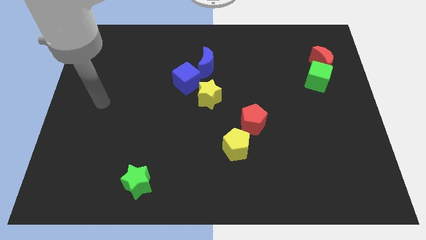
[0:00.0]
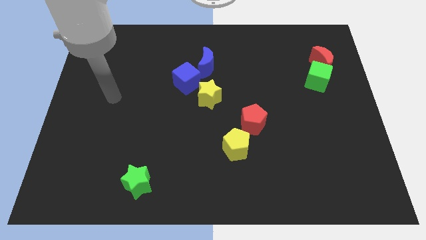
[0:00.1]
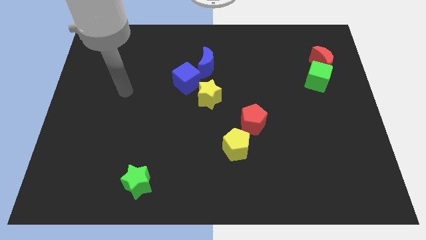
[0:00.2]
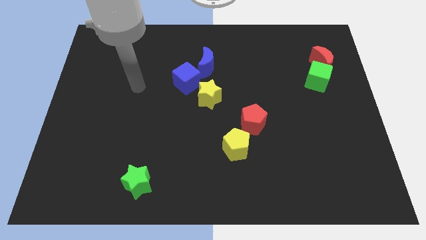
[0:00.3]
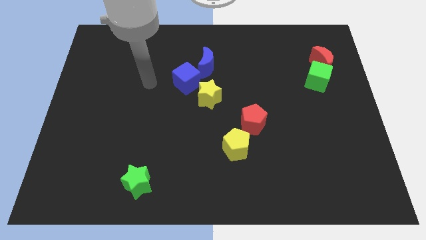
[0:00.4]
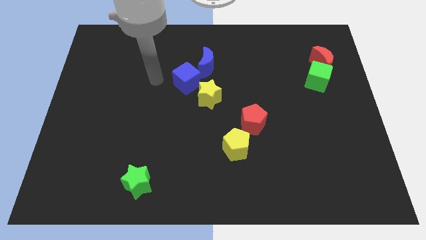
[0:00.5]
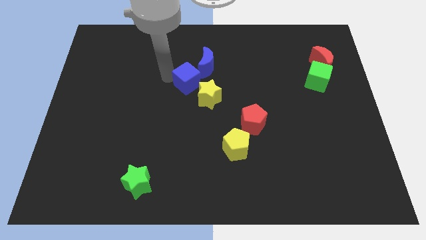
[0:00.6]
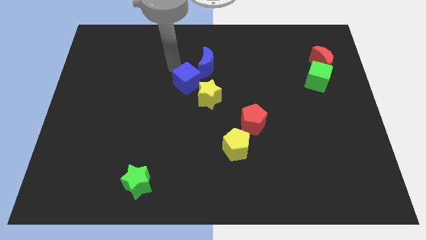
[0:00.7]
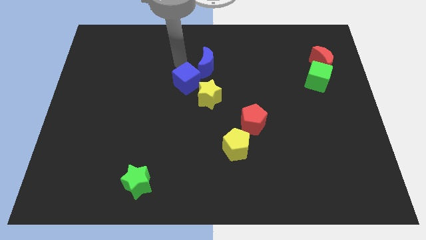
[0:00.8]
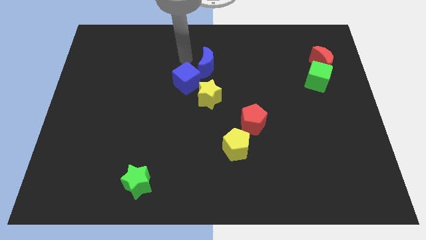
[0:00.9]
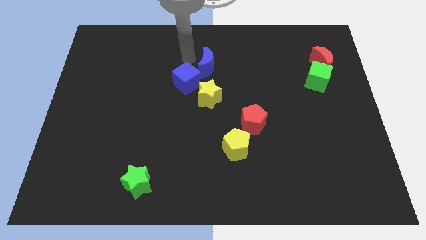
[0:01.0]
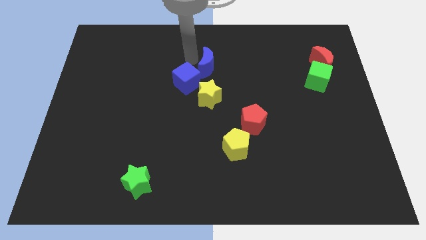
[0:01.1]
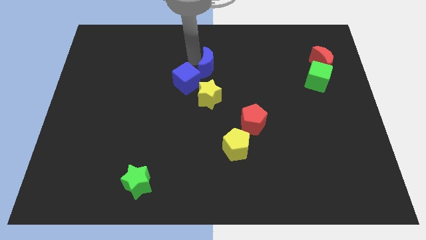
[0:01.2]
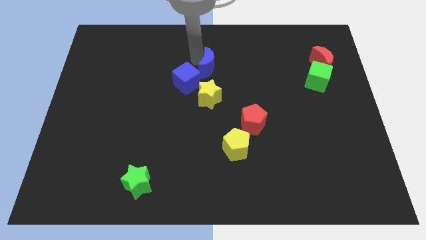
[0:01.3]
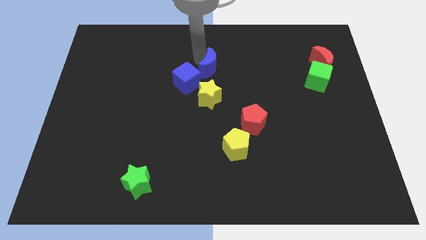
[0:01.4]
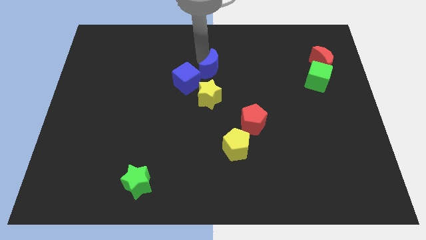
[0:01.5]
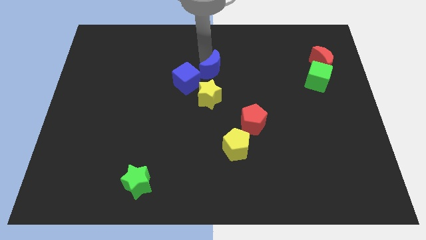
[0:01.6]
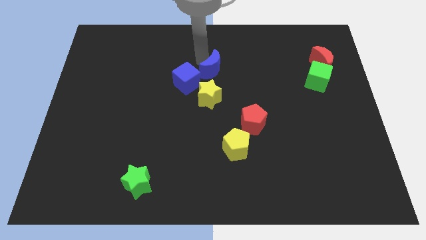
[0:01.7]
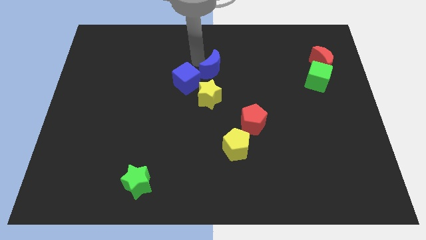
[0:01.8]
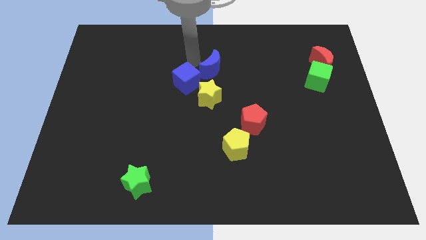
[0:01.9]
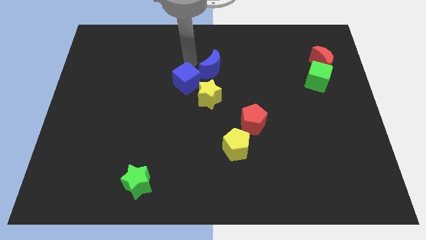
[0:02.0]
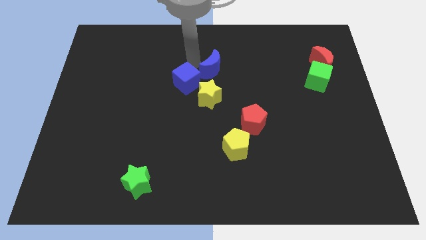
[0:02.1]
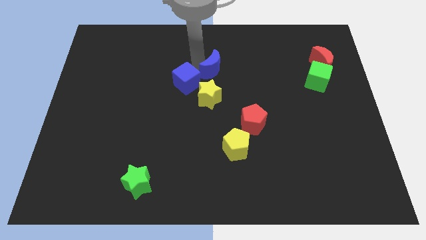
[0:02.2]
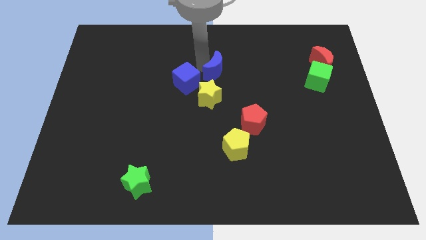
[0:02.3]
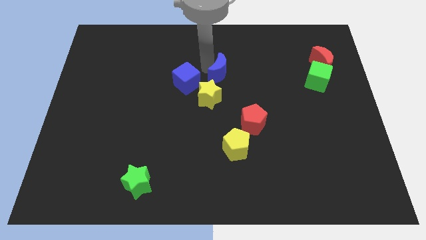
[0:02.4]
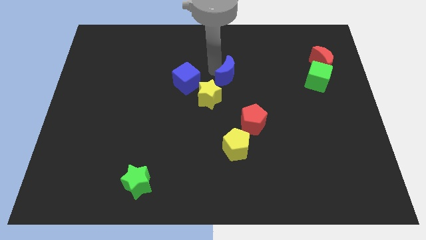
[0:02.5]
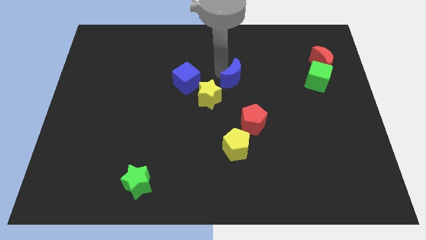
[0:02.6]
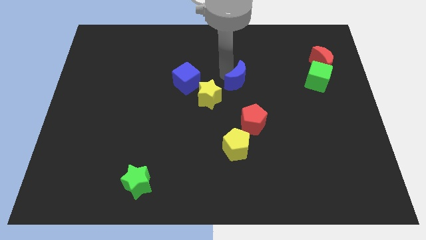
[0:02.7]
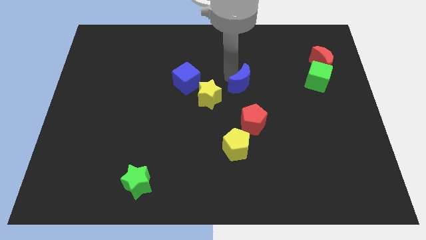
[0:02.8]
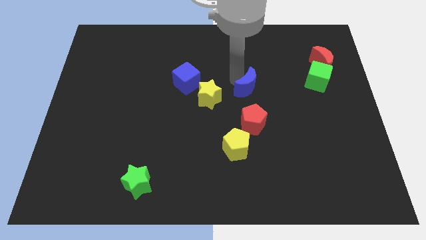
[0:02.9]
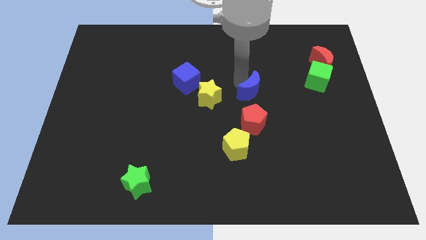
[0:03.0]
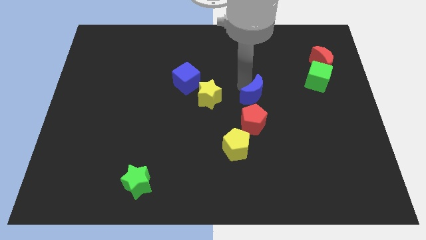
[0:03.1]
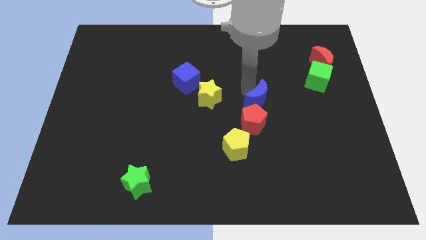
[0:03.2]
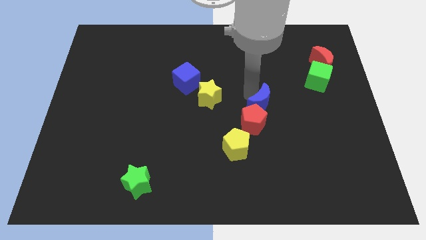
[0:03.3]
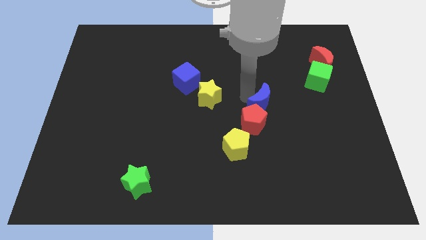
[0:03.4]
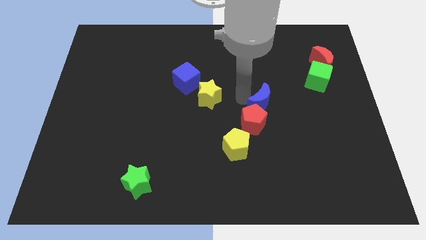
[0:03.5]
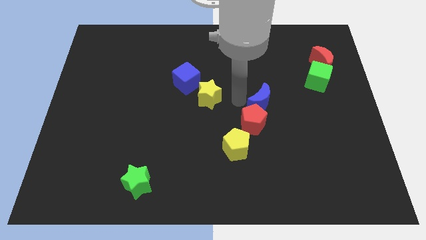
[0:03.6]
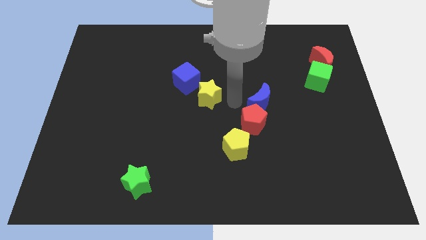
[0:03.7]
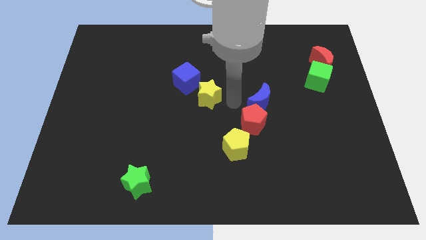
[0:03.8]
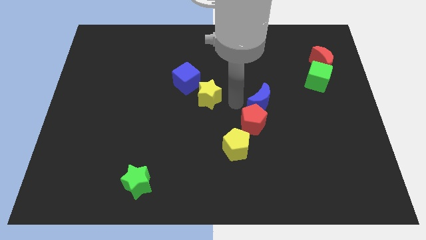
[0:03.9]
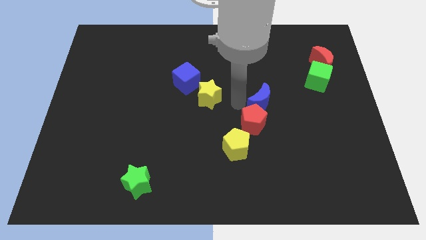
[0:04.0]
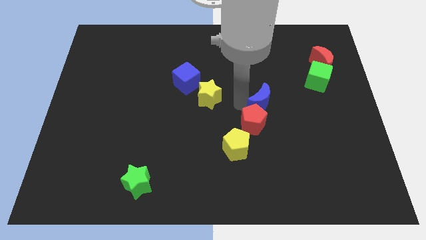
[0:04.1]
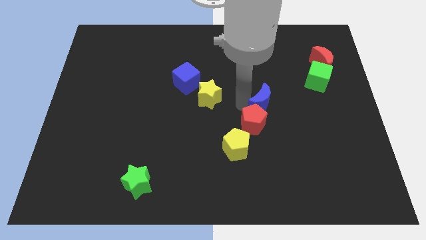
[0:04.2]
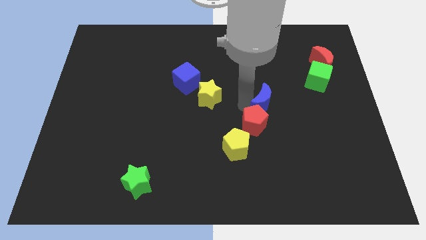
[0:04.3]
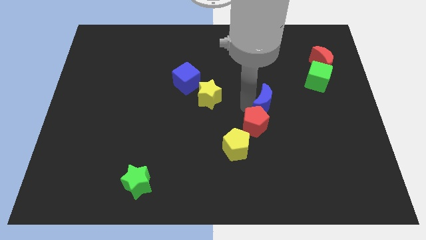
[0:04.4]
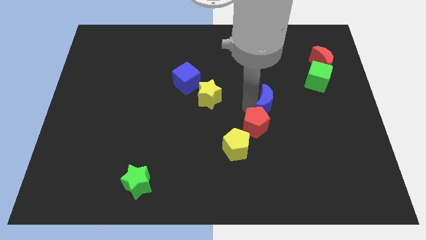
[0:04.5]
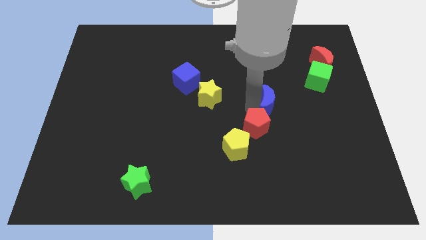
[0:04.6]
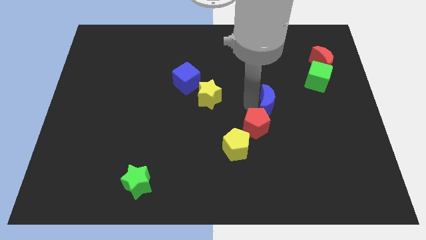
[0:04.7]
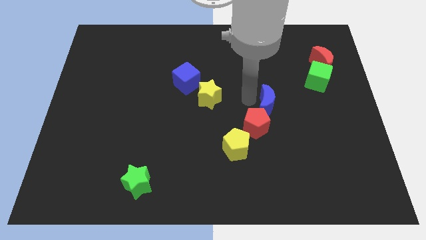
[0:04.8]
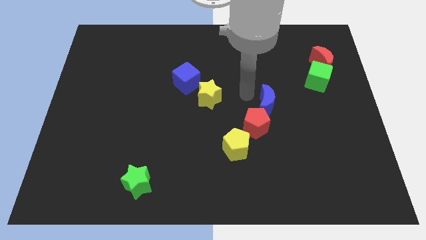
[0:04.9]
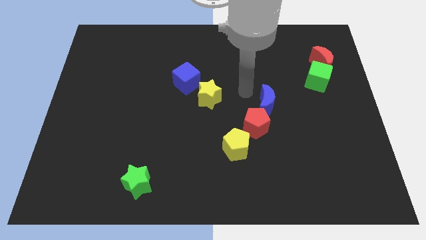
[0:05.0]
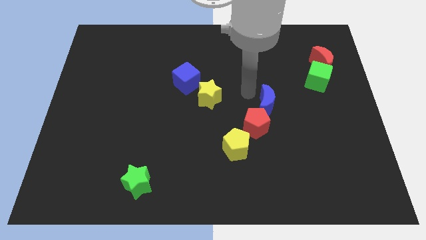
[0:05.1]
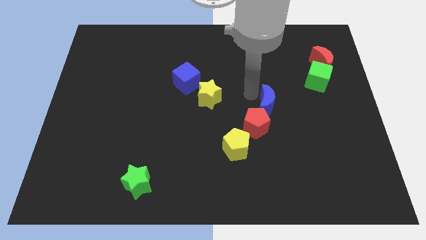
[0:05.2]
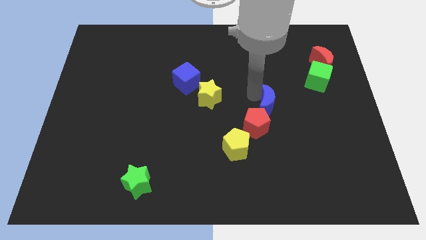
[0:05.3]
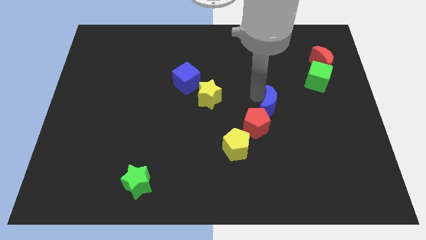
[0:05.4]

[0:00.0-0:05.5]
move the blue moon diagonally downwards and to the right

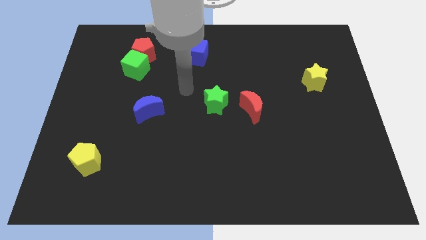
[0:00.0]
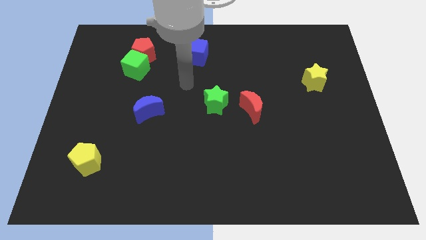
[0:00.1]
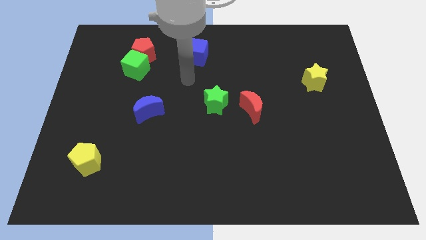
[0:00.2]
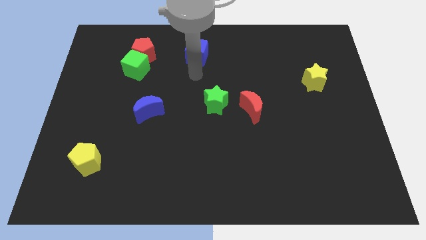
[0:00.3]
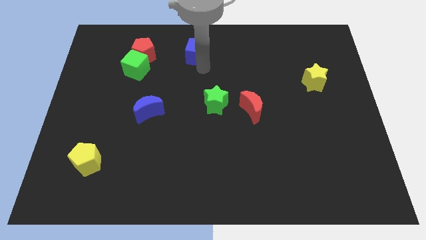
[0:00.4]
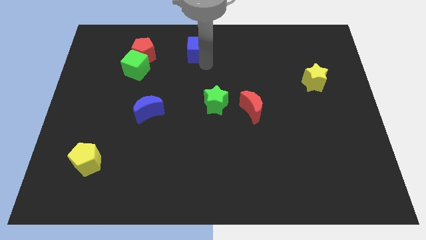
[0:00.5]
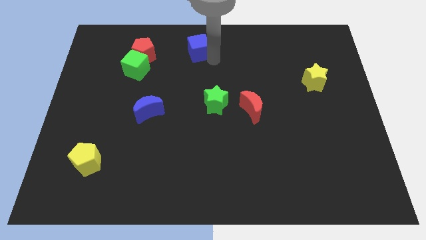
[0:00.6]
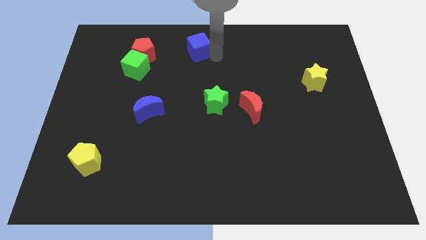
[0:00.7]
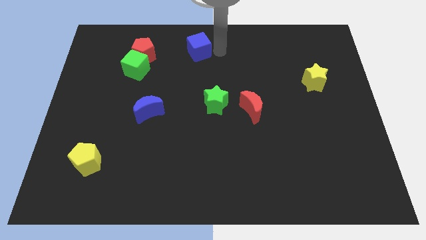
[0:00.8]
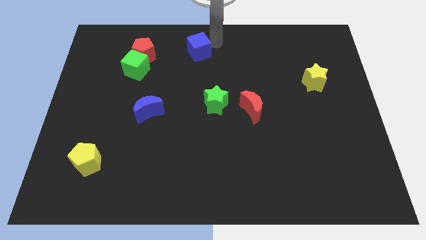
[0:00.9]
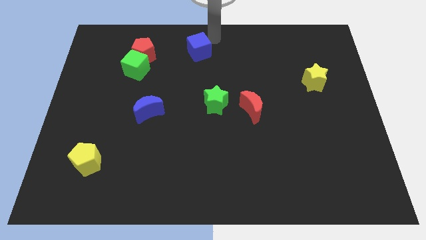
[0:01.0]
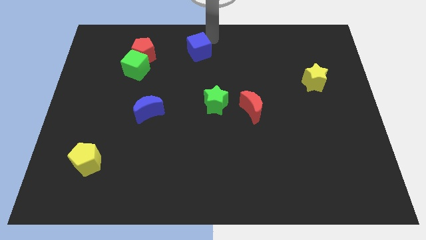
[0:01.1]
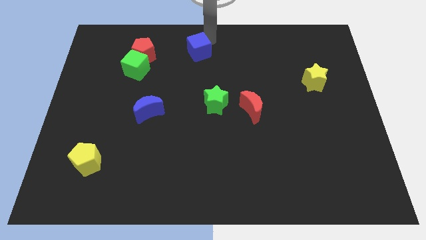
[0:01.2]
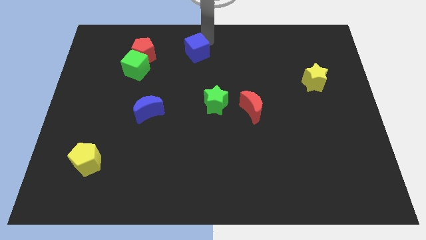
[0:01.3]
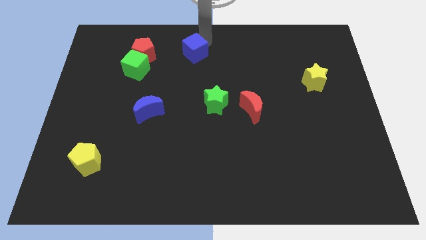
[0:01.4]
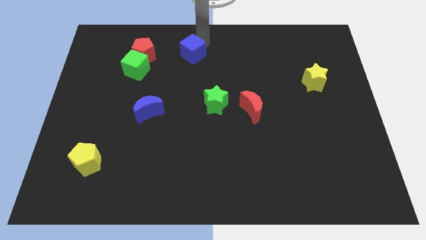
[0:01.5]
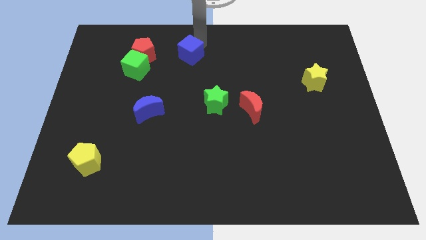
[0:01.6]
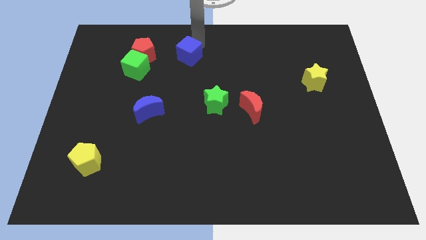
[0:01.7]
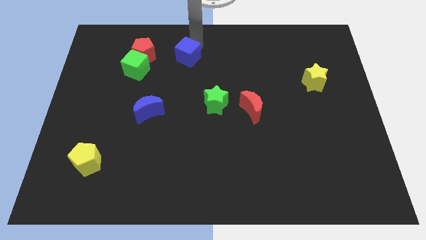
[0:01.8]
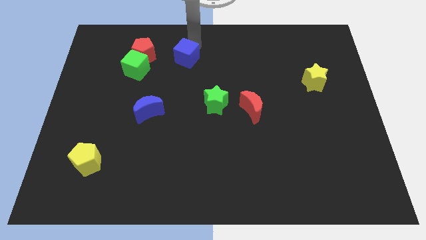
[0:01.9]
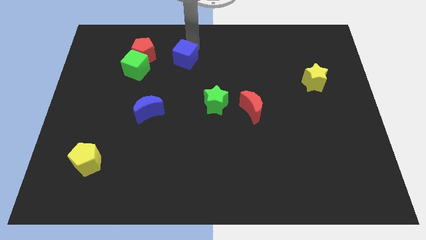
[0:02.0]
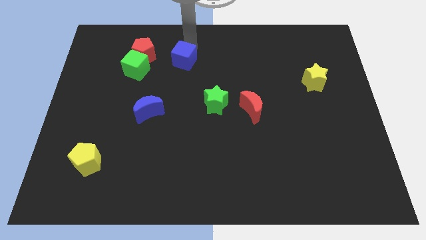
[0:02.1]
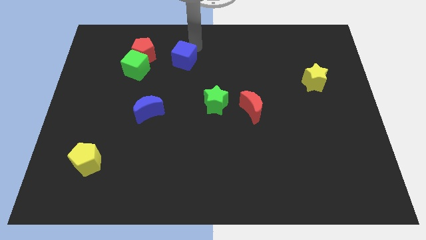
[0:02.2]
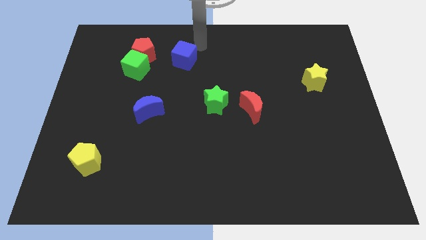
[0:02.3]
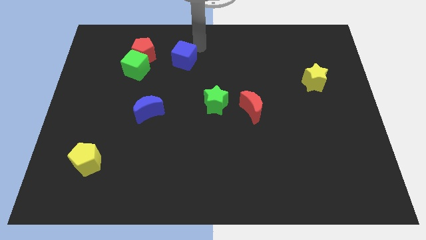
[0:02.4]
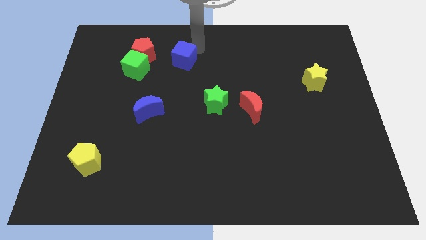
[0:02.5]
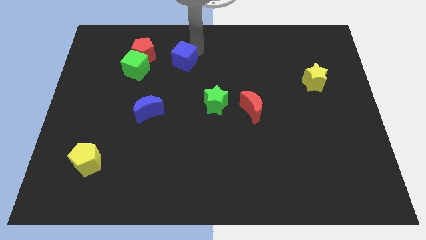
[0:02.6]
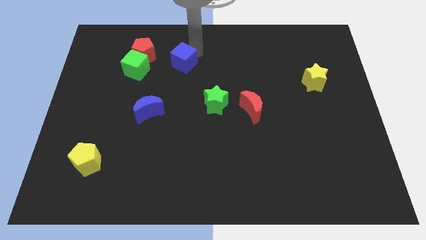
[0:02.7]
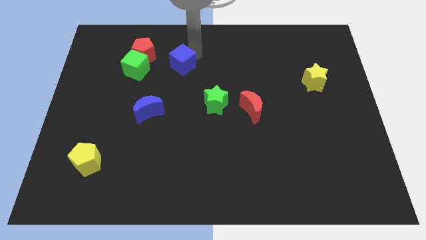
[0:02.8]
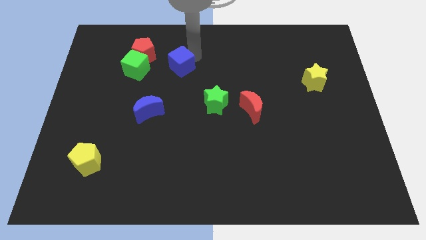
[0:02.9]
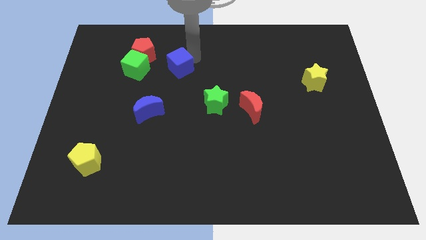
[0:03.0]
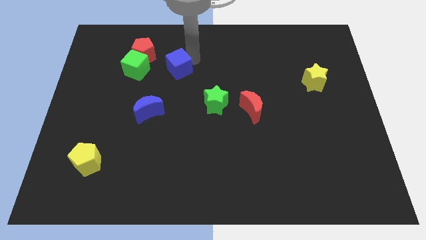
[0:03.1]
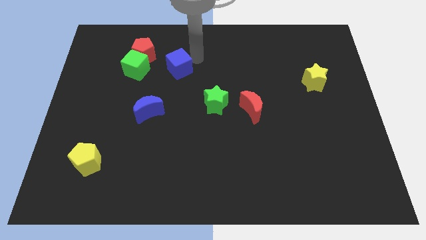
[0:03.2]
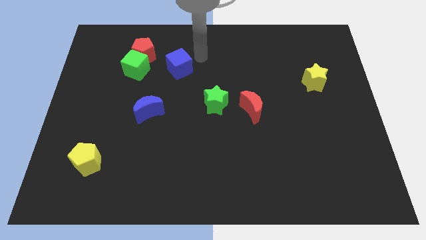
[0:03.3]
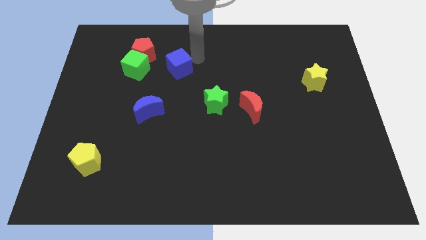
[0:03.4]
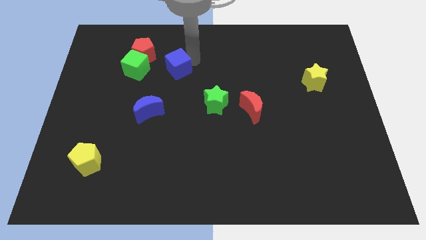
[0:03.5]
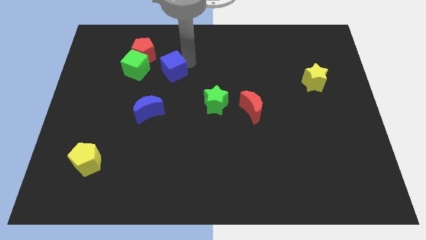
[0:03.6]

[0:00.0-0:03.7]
move the blue cube slightly down and left diagonally
